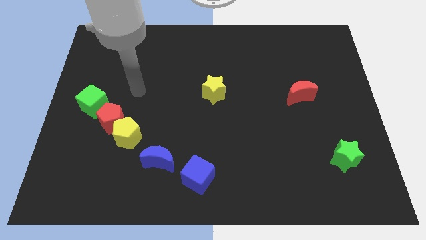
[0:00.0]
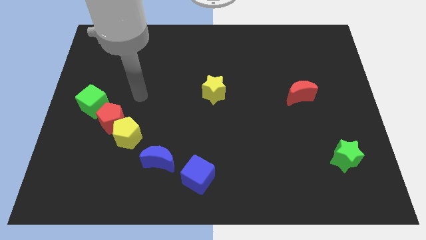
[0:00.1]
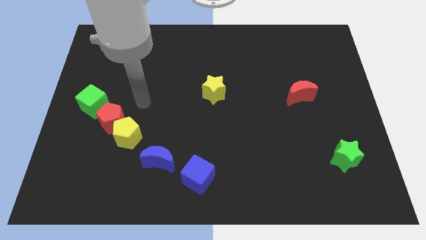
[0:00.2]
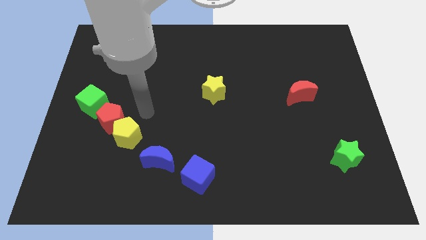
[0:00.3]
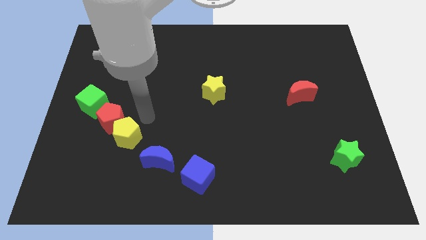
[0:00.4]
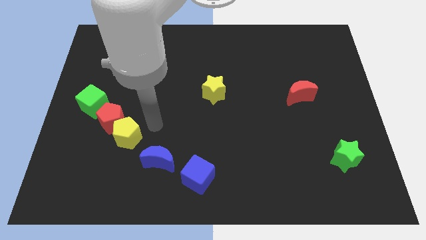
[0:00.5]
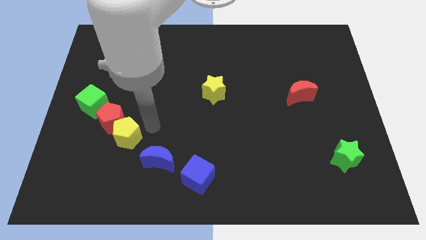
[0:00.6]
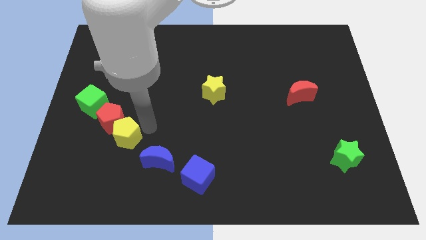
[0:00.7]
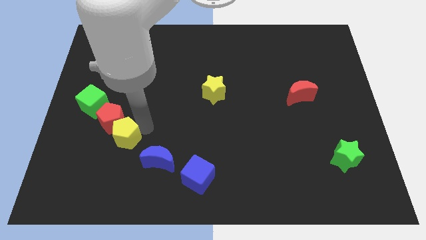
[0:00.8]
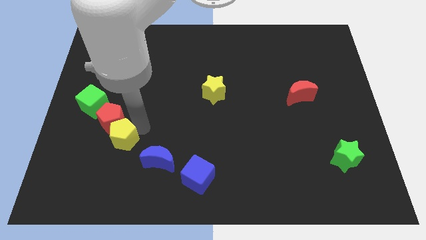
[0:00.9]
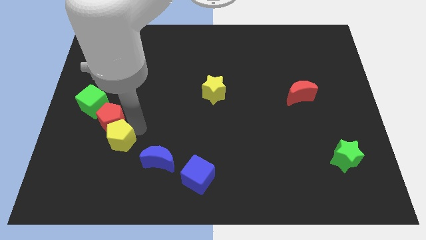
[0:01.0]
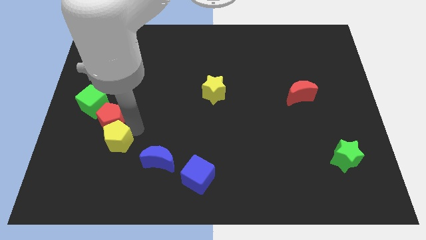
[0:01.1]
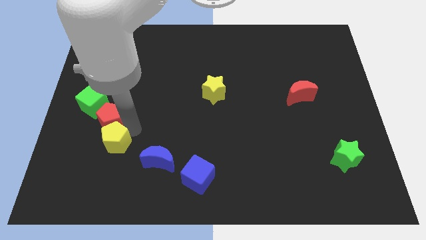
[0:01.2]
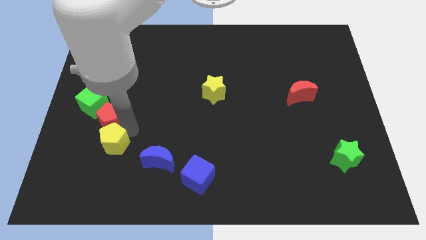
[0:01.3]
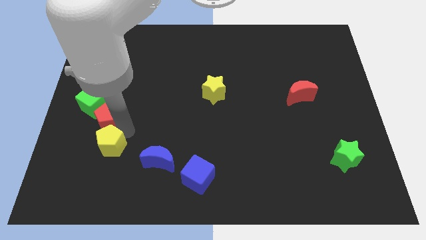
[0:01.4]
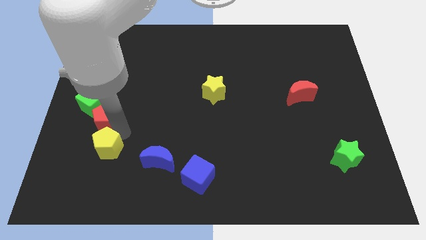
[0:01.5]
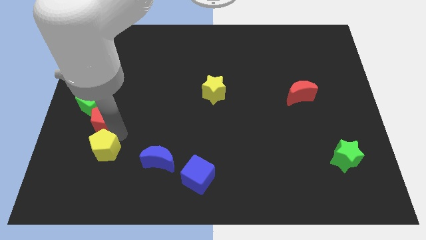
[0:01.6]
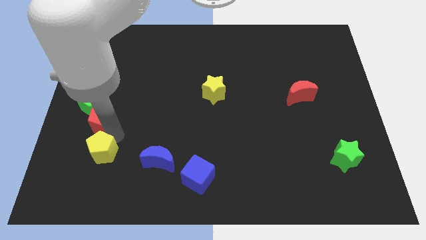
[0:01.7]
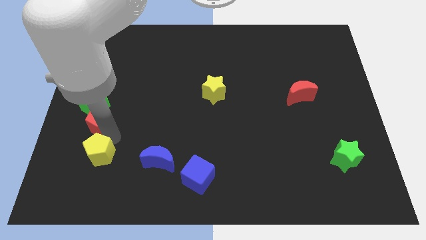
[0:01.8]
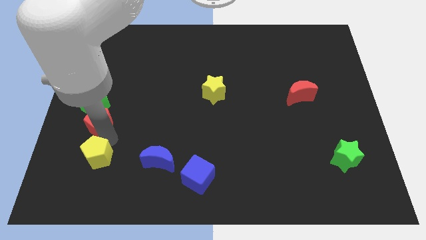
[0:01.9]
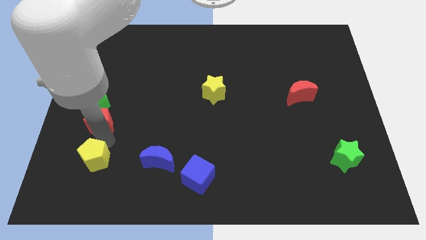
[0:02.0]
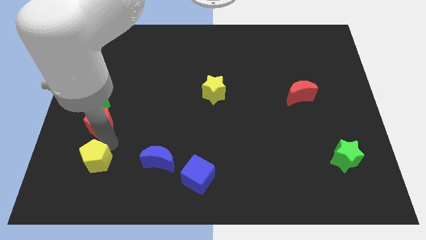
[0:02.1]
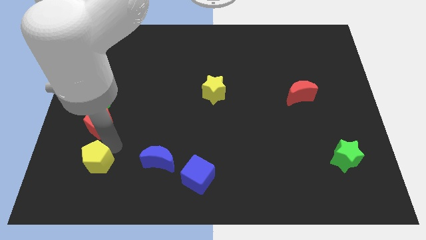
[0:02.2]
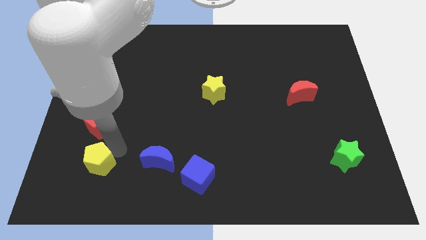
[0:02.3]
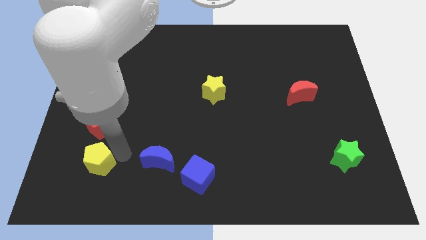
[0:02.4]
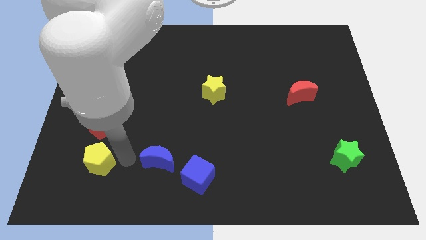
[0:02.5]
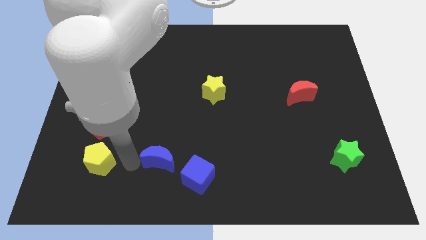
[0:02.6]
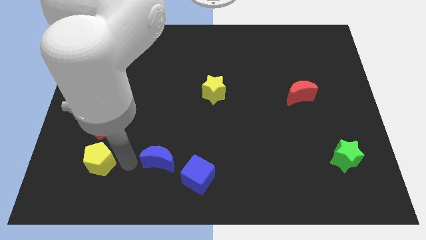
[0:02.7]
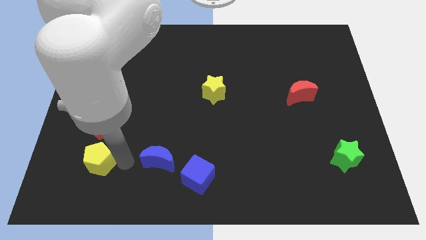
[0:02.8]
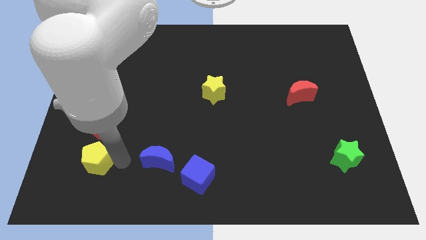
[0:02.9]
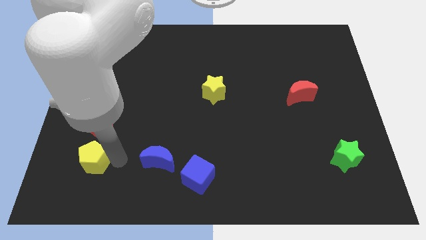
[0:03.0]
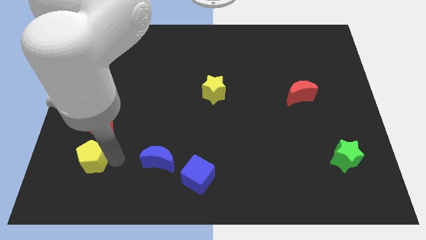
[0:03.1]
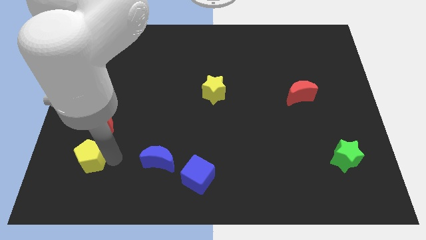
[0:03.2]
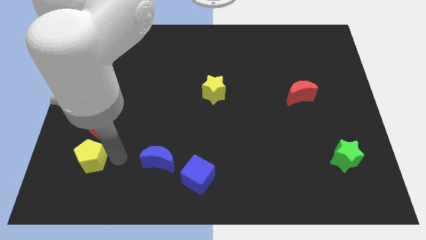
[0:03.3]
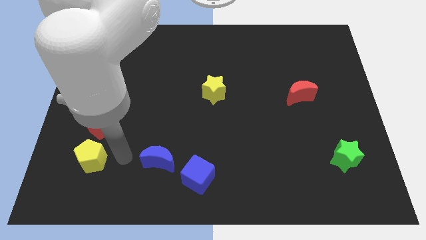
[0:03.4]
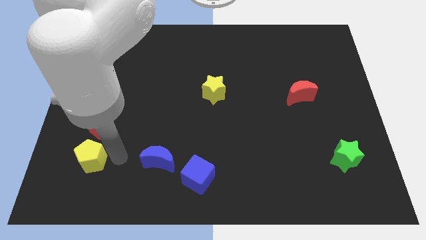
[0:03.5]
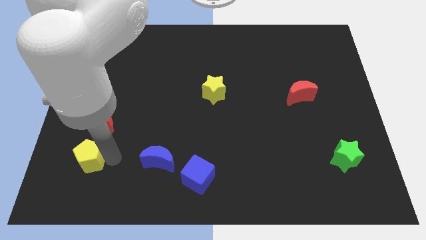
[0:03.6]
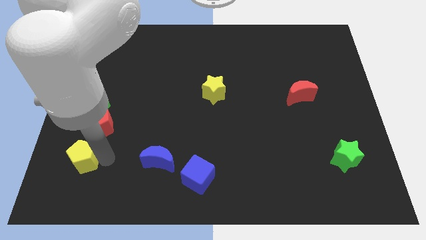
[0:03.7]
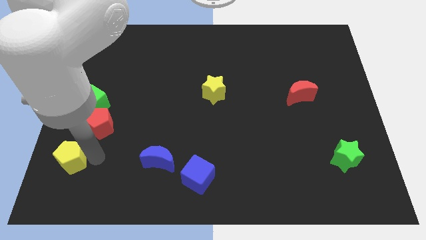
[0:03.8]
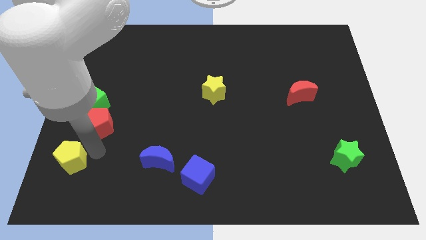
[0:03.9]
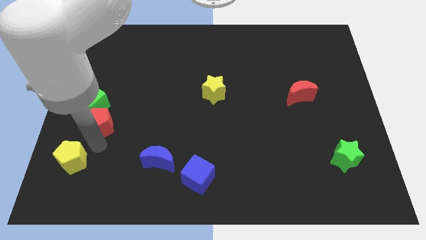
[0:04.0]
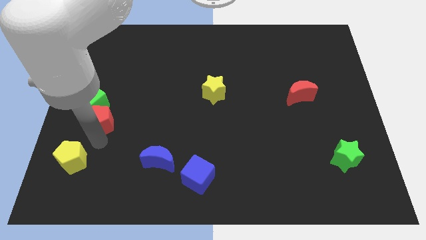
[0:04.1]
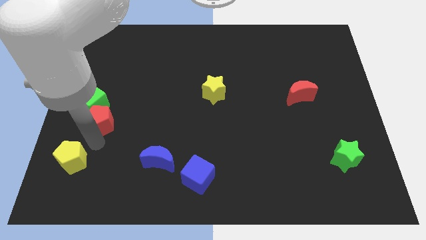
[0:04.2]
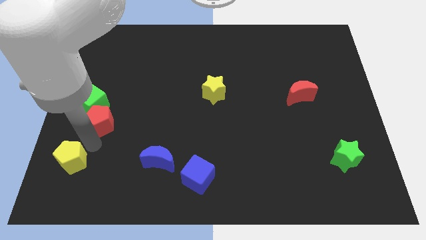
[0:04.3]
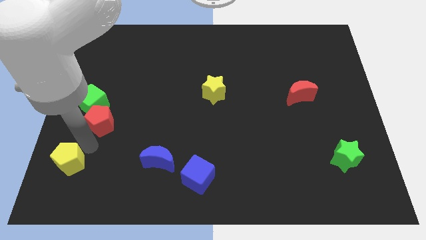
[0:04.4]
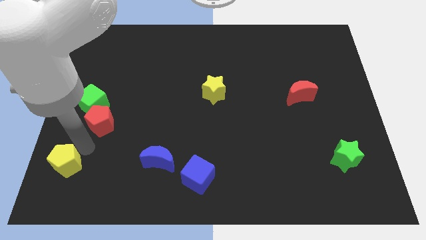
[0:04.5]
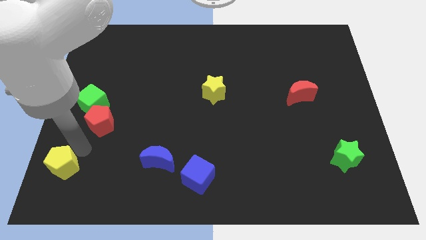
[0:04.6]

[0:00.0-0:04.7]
slide the yellow pentagon to the bottom left of the board

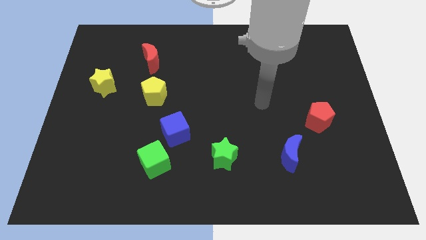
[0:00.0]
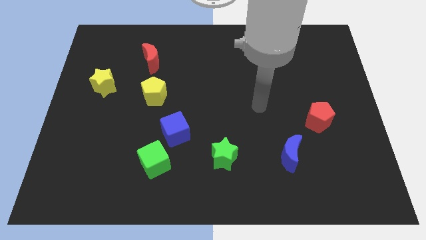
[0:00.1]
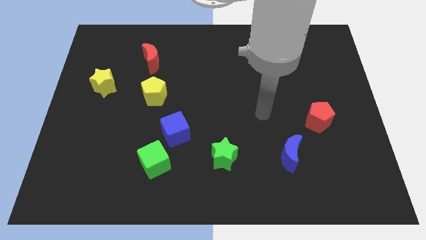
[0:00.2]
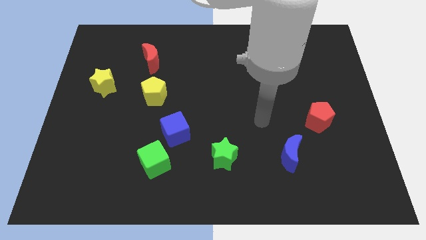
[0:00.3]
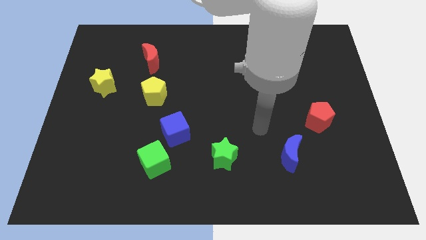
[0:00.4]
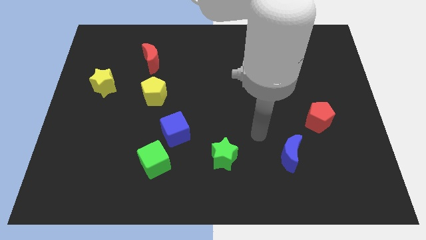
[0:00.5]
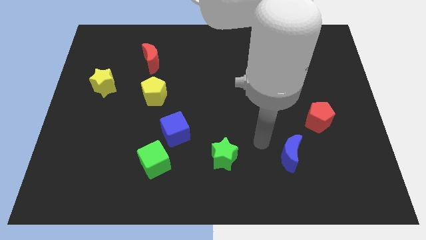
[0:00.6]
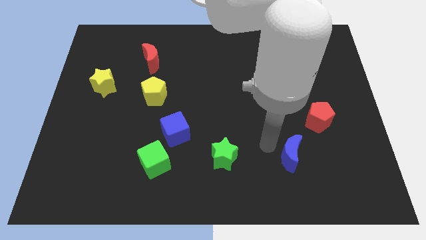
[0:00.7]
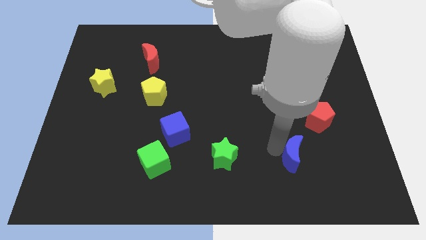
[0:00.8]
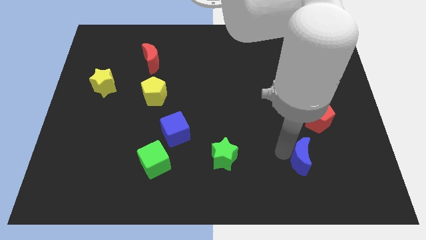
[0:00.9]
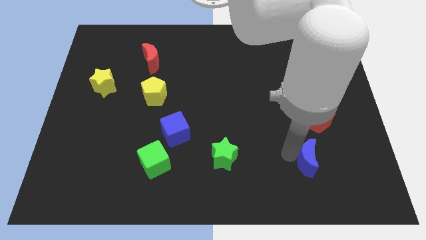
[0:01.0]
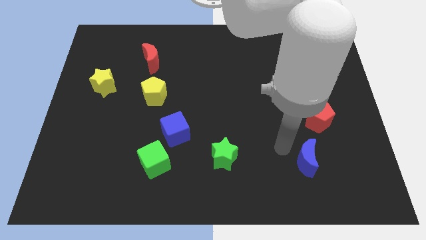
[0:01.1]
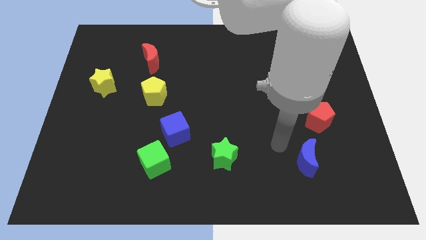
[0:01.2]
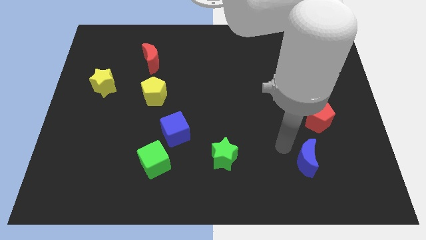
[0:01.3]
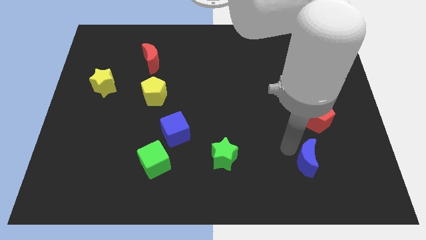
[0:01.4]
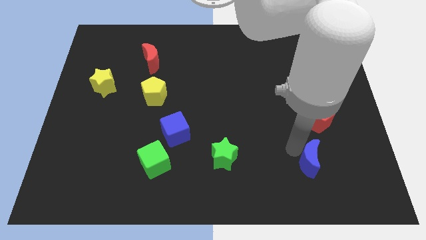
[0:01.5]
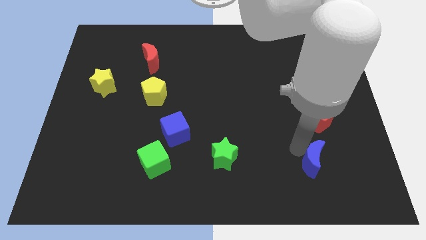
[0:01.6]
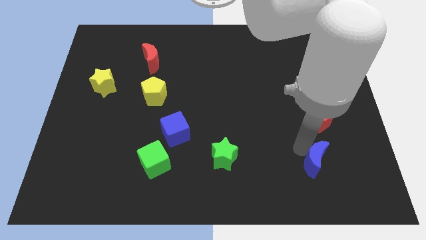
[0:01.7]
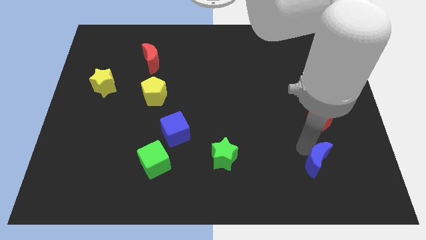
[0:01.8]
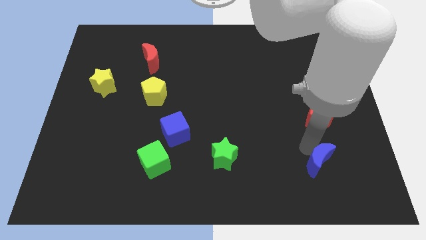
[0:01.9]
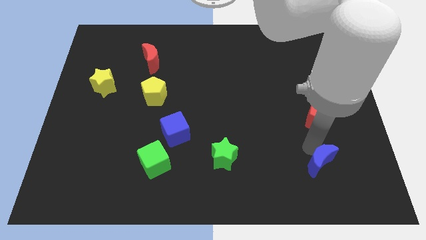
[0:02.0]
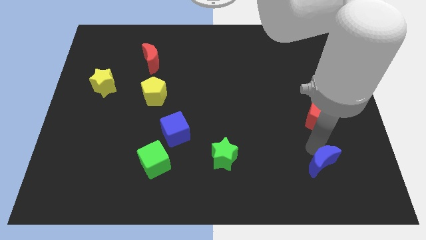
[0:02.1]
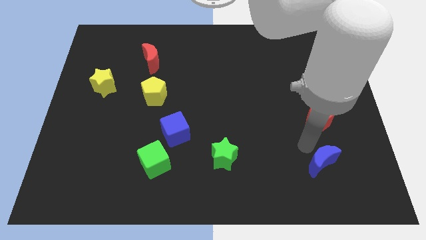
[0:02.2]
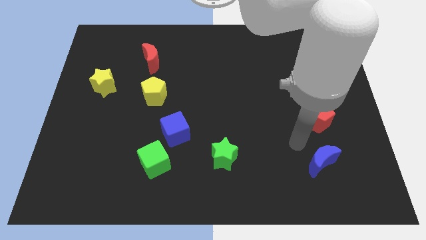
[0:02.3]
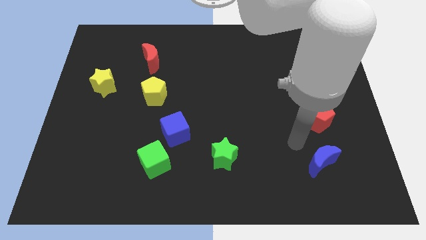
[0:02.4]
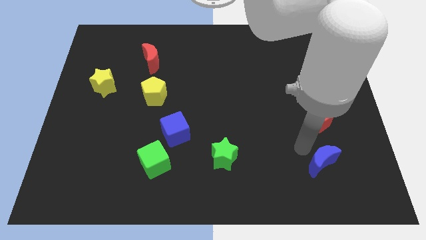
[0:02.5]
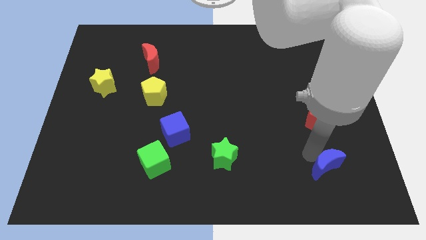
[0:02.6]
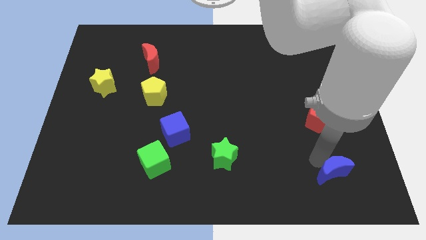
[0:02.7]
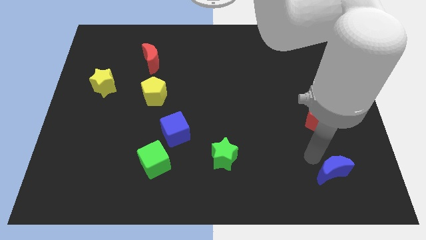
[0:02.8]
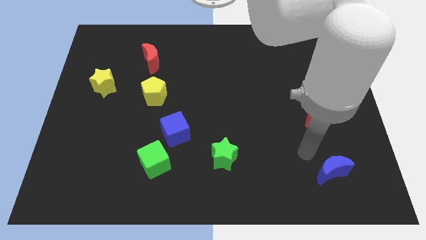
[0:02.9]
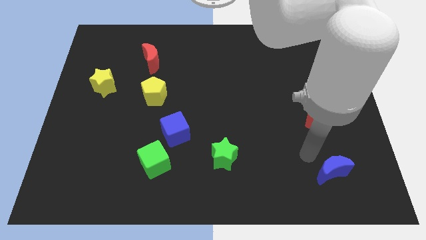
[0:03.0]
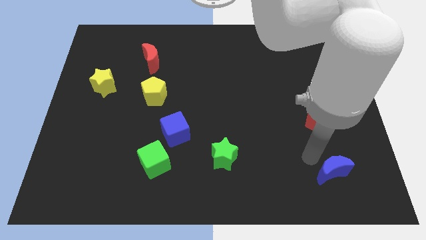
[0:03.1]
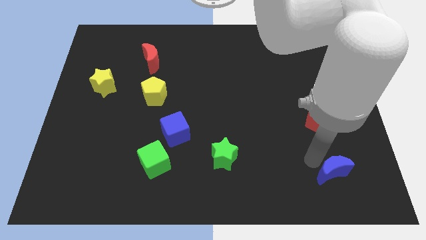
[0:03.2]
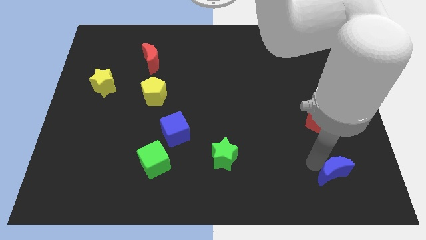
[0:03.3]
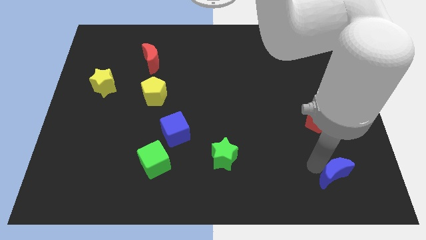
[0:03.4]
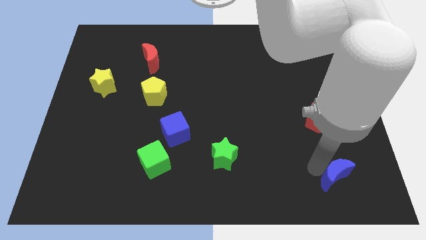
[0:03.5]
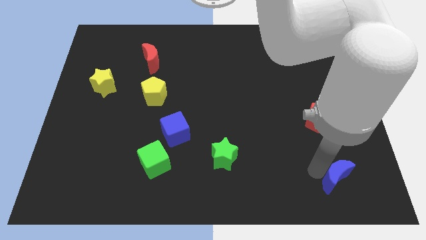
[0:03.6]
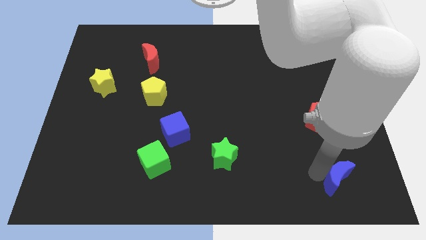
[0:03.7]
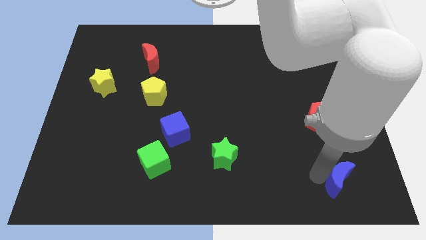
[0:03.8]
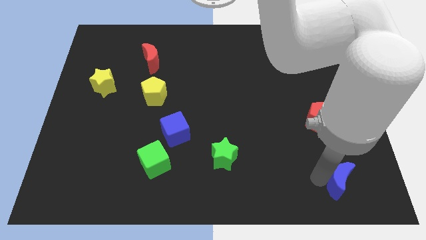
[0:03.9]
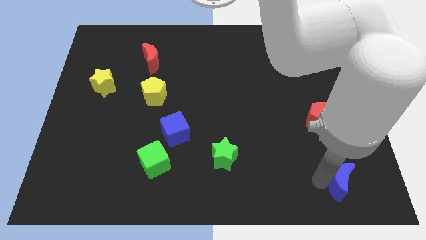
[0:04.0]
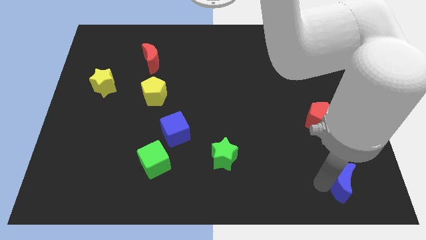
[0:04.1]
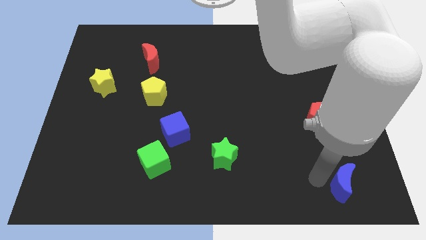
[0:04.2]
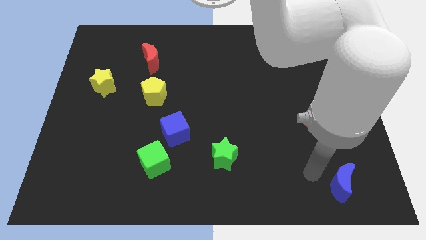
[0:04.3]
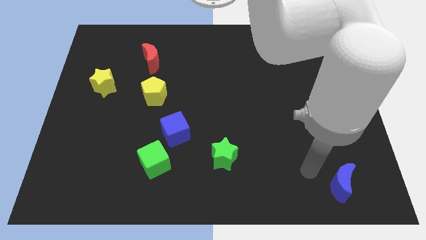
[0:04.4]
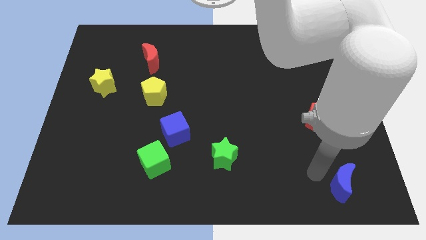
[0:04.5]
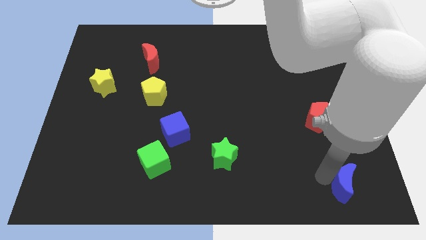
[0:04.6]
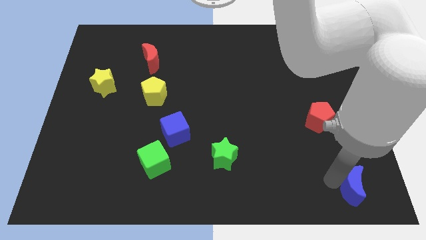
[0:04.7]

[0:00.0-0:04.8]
move the blue moon to the bottom right of the board
